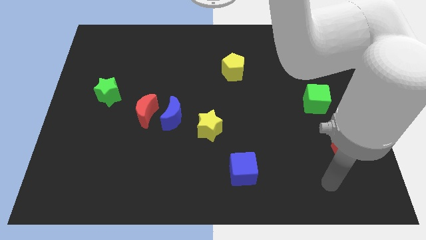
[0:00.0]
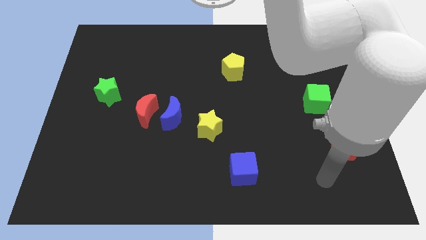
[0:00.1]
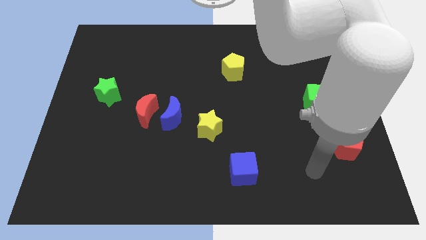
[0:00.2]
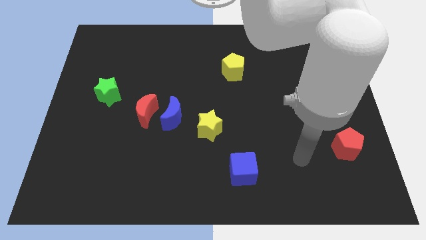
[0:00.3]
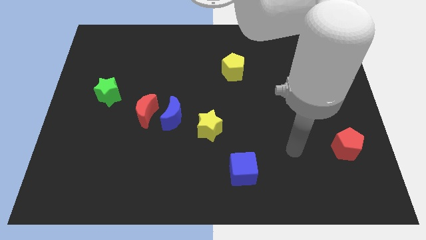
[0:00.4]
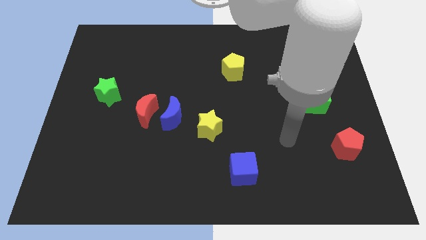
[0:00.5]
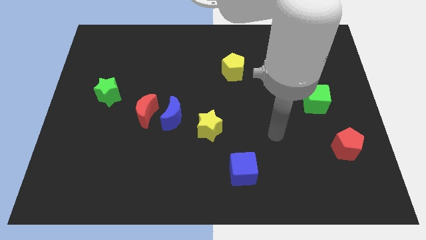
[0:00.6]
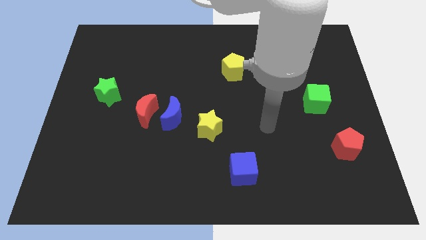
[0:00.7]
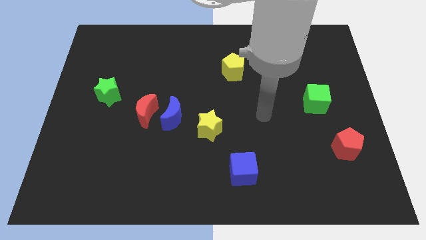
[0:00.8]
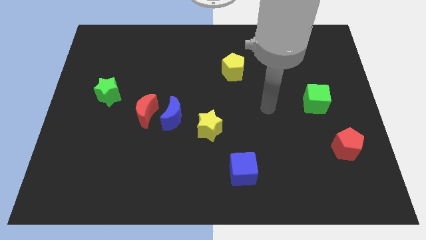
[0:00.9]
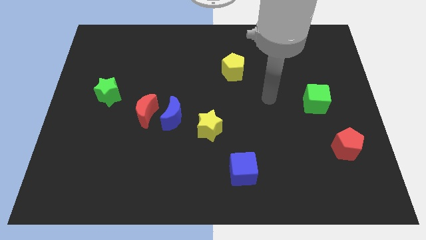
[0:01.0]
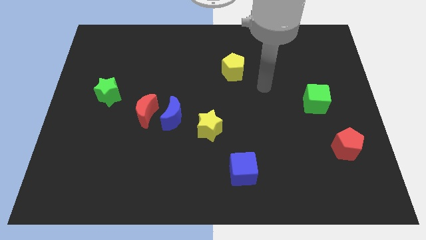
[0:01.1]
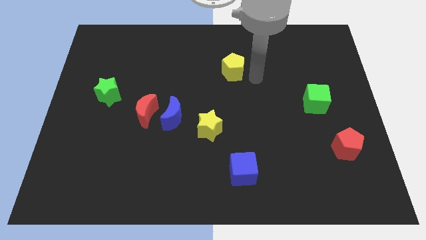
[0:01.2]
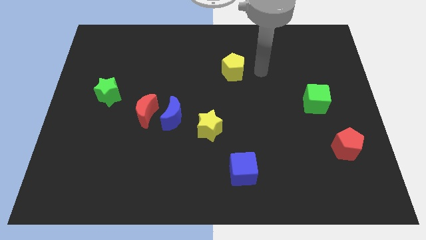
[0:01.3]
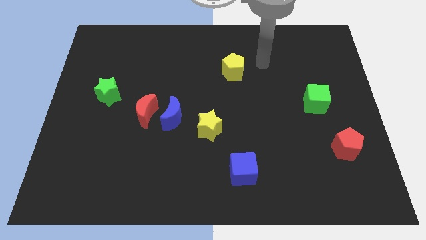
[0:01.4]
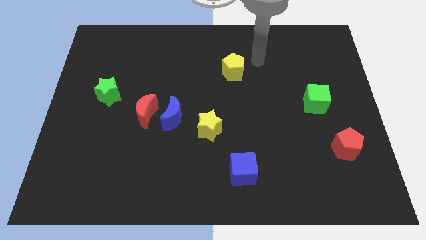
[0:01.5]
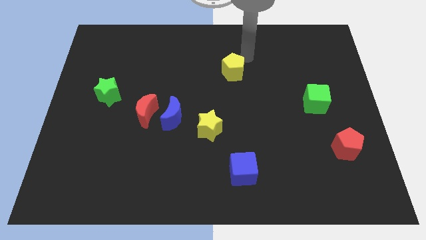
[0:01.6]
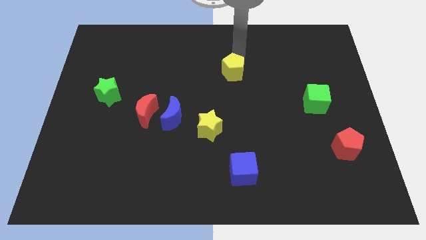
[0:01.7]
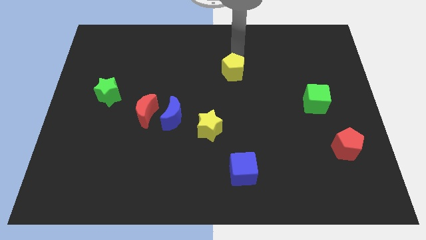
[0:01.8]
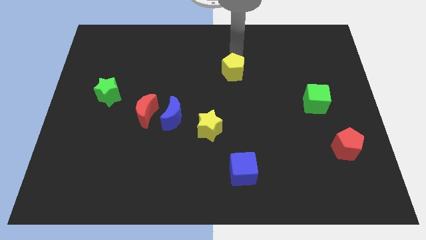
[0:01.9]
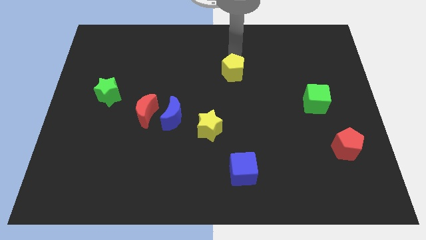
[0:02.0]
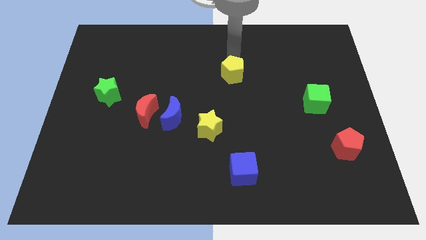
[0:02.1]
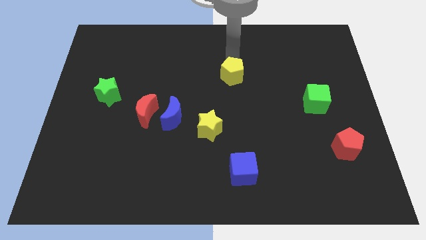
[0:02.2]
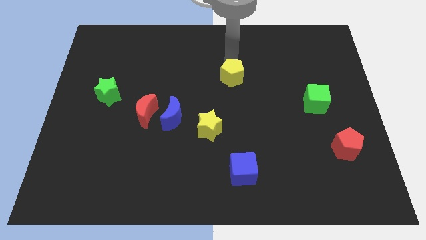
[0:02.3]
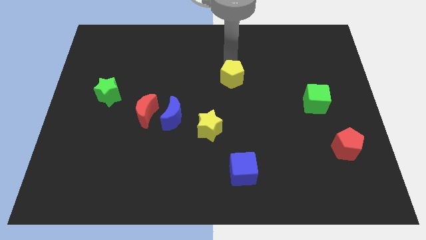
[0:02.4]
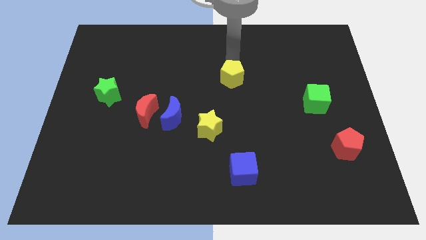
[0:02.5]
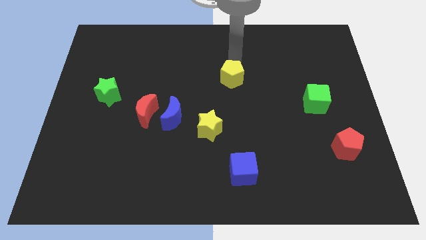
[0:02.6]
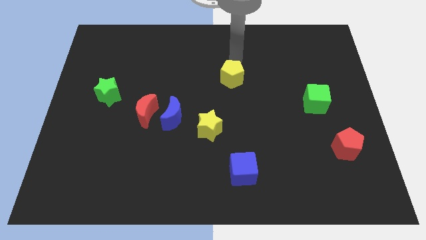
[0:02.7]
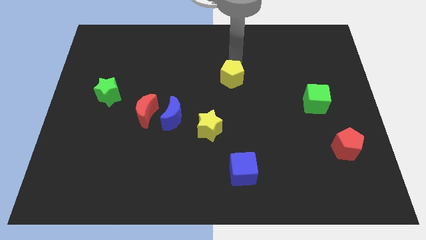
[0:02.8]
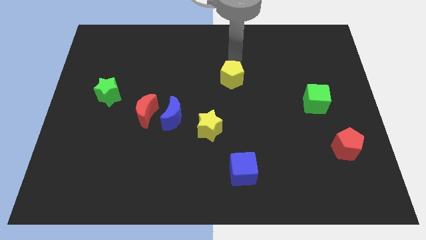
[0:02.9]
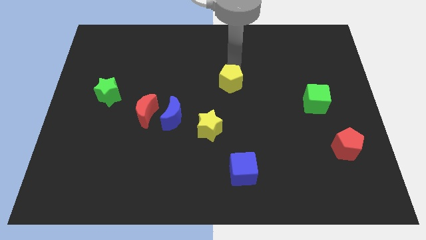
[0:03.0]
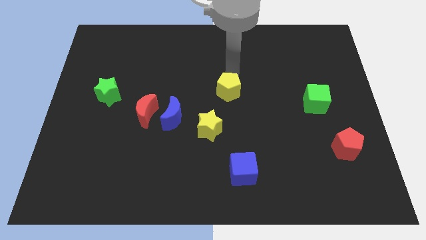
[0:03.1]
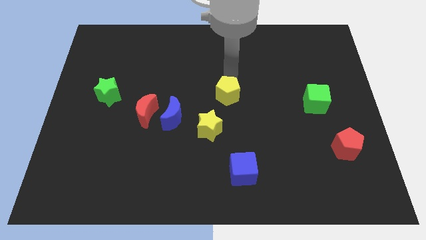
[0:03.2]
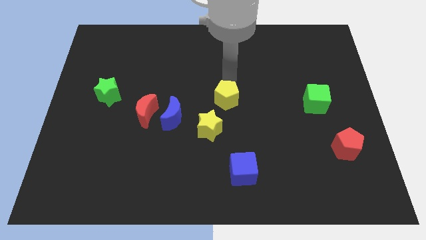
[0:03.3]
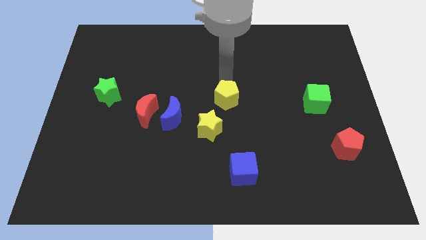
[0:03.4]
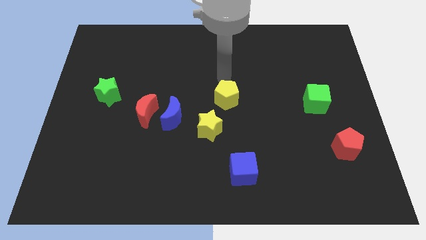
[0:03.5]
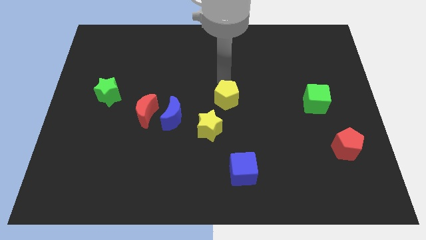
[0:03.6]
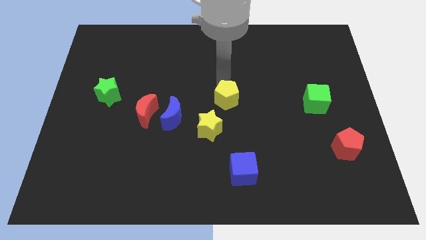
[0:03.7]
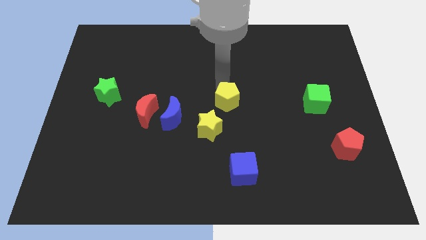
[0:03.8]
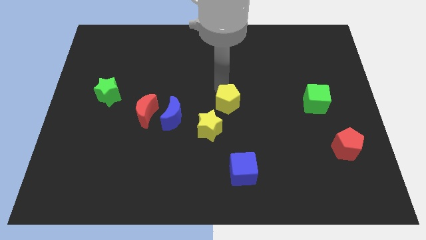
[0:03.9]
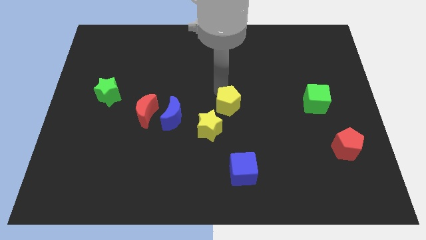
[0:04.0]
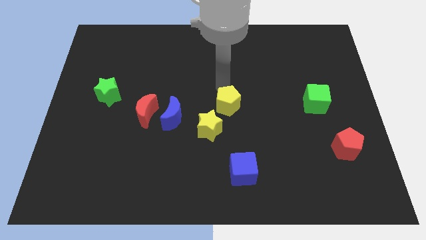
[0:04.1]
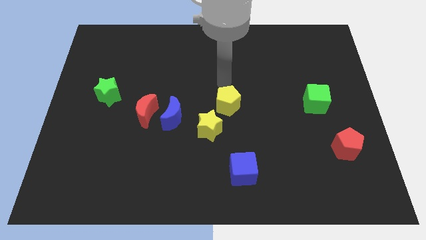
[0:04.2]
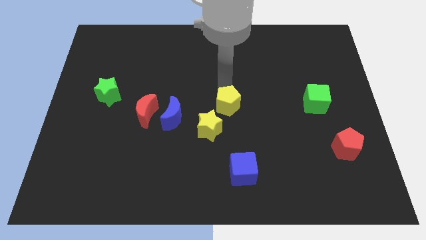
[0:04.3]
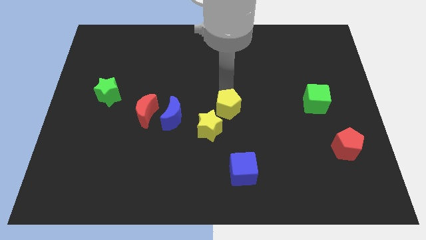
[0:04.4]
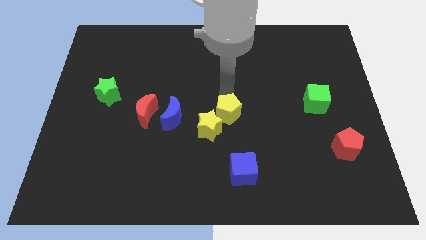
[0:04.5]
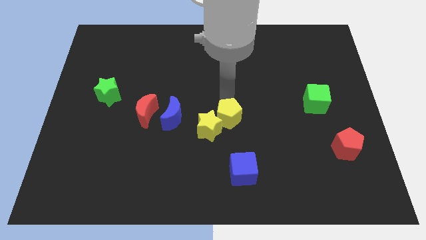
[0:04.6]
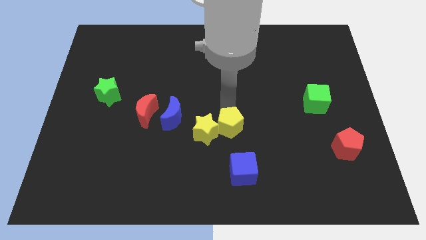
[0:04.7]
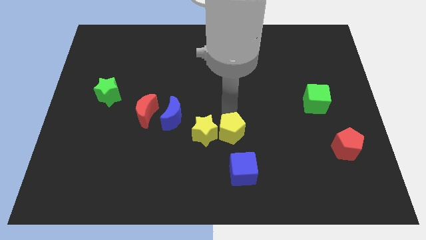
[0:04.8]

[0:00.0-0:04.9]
move the yellow pentagon to the bottom right of the yellow star

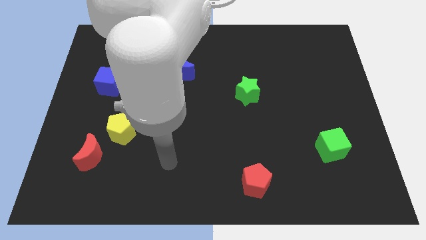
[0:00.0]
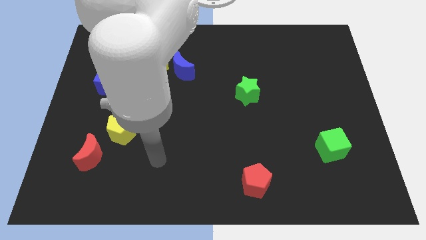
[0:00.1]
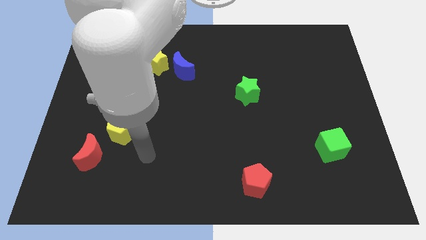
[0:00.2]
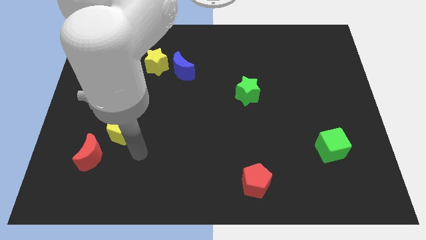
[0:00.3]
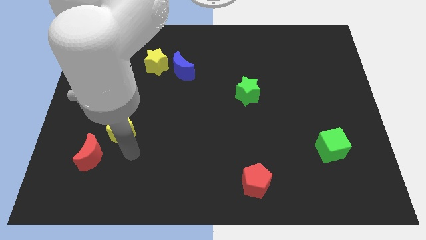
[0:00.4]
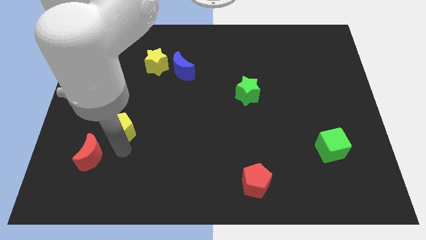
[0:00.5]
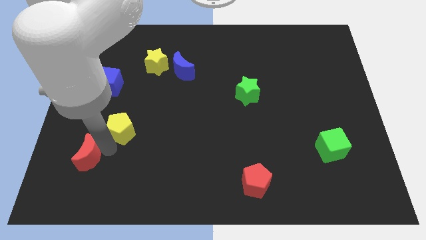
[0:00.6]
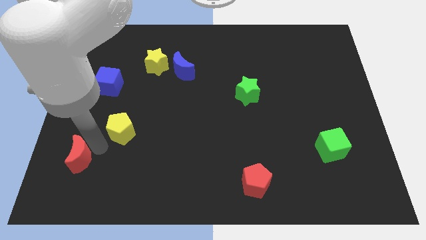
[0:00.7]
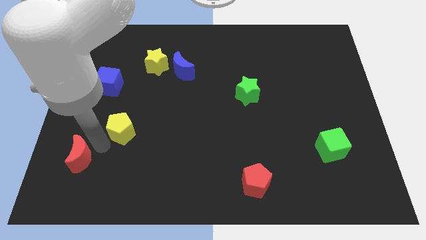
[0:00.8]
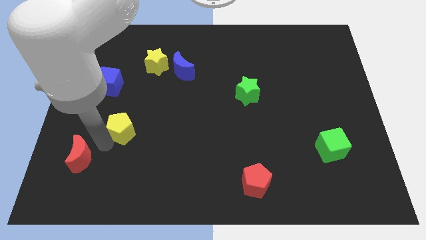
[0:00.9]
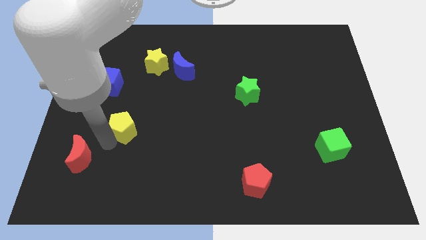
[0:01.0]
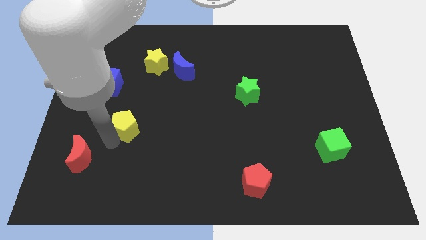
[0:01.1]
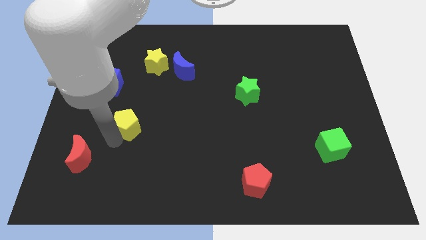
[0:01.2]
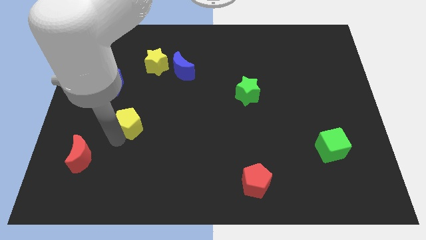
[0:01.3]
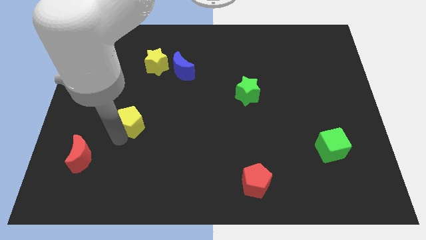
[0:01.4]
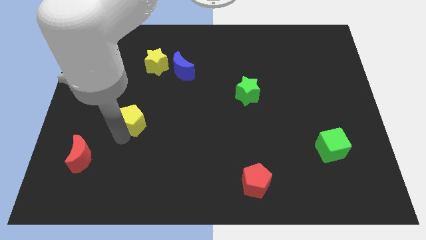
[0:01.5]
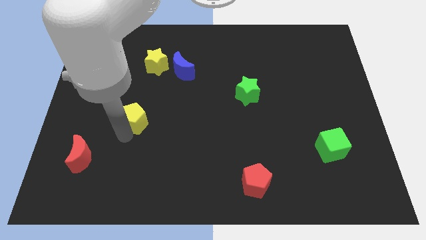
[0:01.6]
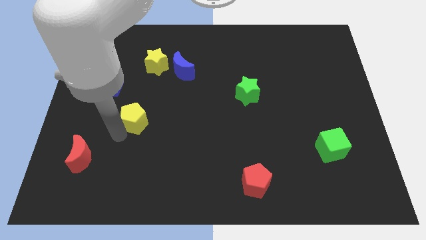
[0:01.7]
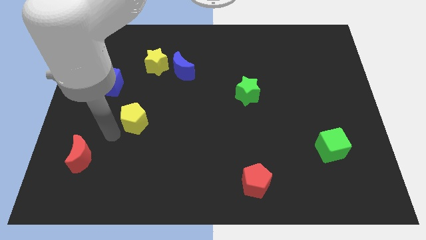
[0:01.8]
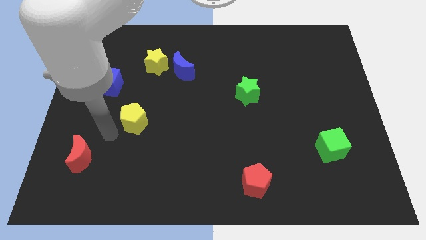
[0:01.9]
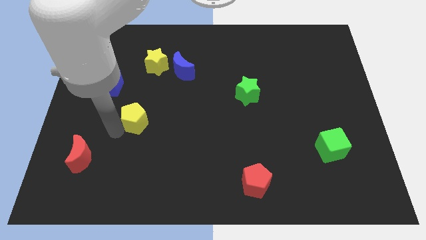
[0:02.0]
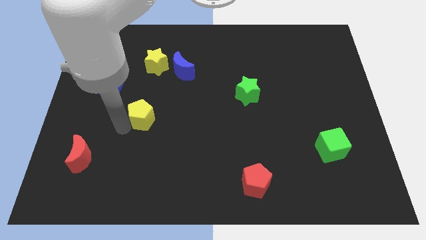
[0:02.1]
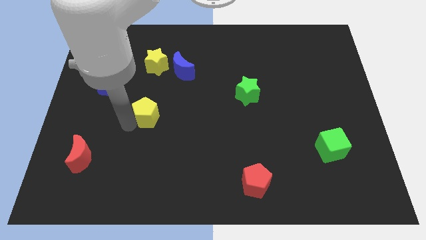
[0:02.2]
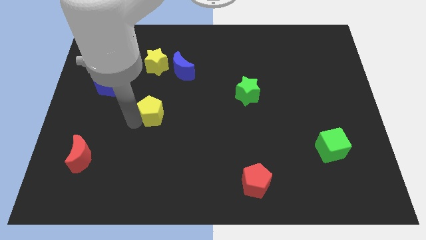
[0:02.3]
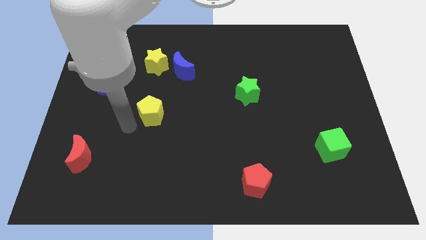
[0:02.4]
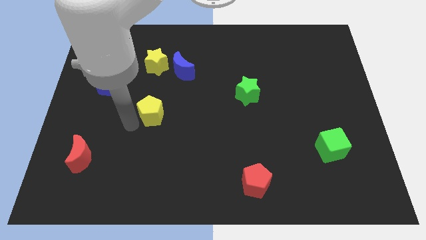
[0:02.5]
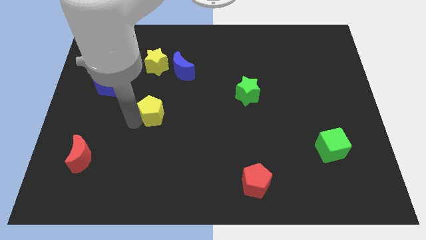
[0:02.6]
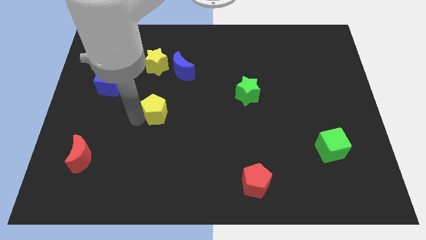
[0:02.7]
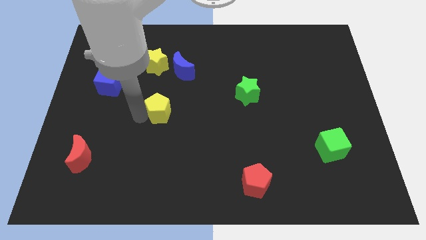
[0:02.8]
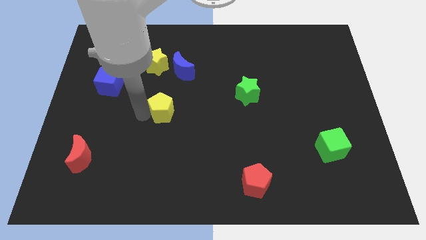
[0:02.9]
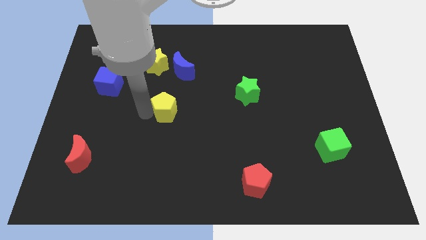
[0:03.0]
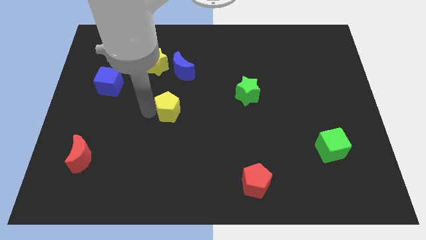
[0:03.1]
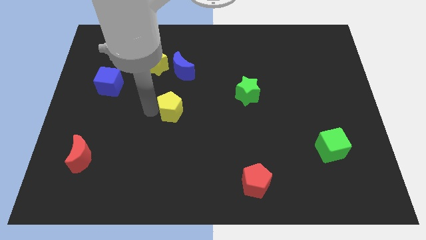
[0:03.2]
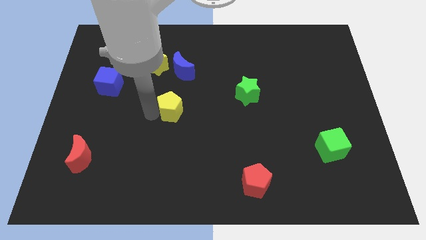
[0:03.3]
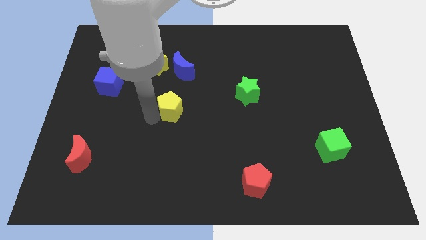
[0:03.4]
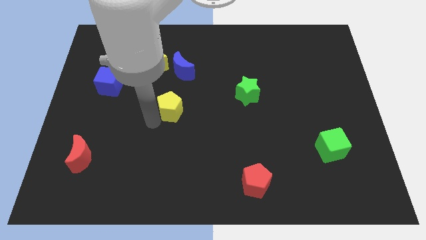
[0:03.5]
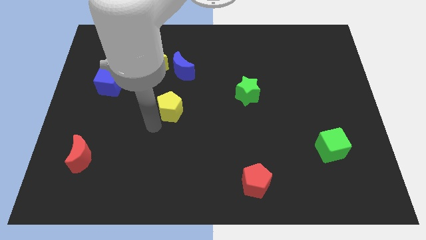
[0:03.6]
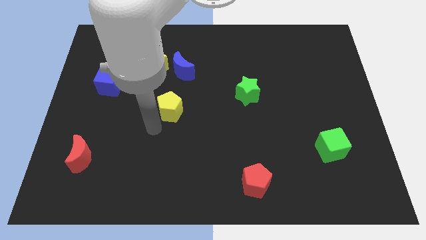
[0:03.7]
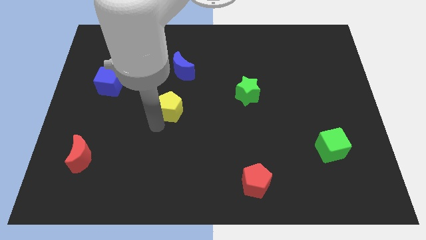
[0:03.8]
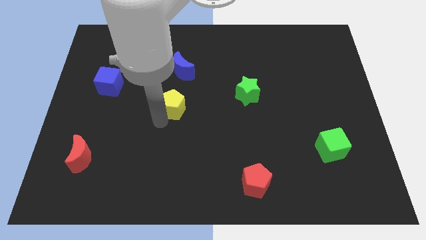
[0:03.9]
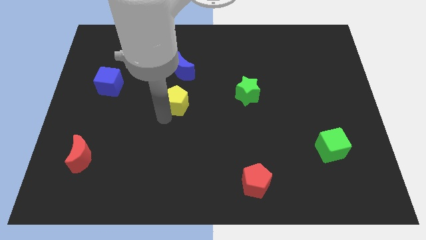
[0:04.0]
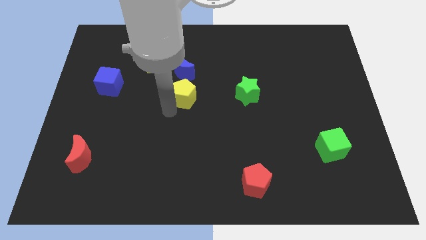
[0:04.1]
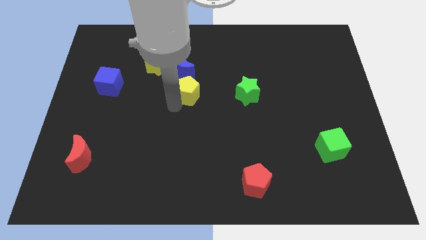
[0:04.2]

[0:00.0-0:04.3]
put the yellow pentagon to the bottom right side of the blue moon
